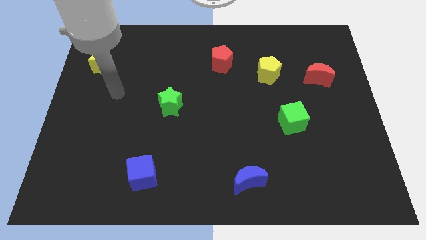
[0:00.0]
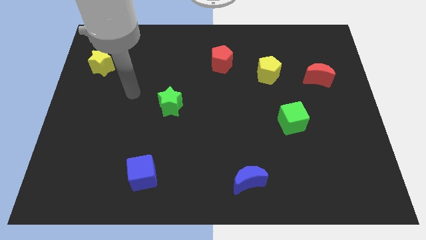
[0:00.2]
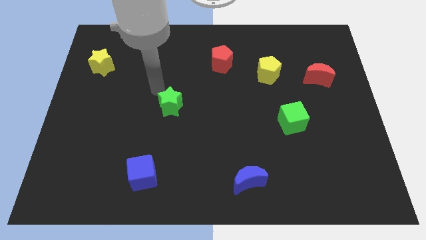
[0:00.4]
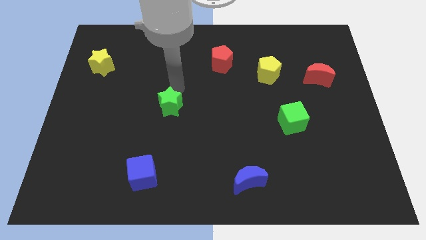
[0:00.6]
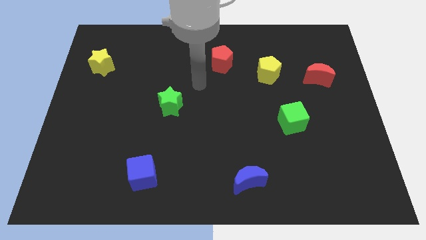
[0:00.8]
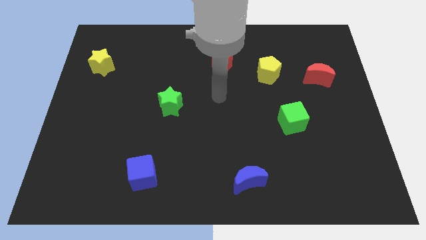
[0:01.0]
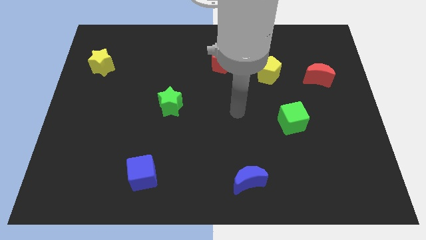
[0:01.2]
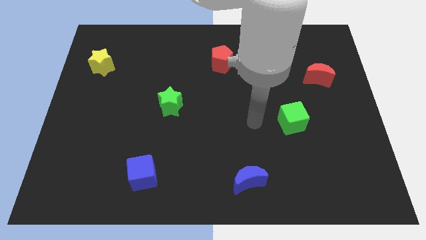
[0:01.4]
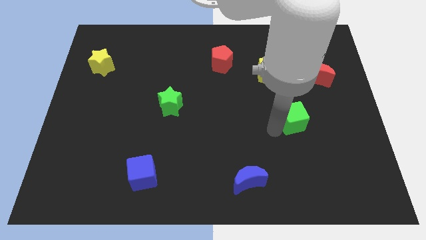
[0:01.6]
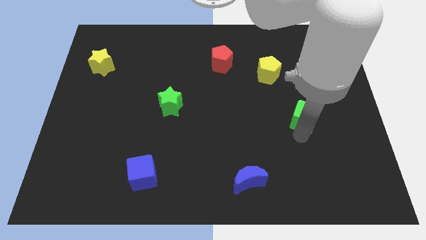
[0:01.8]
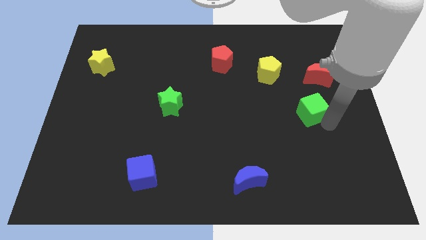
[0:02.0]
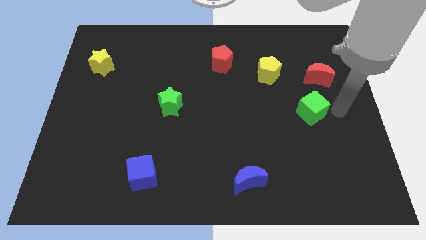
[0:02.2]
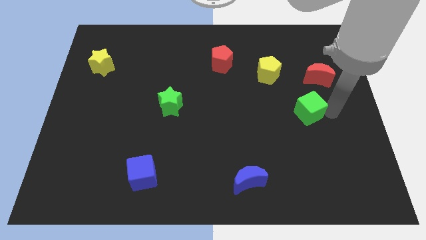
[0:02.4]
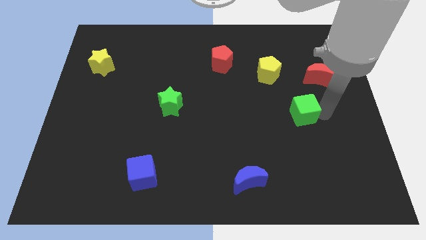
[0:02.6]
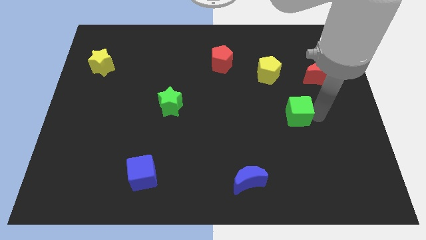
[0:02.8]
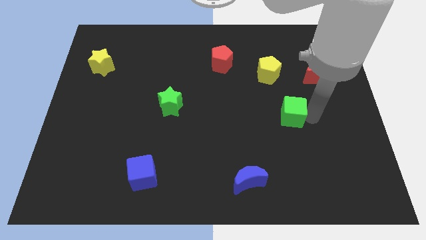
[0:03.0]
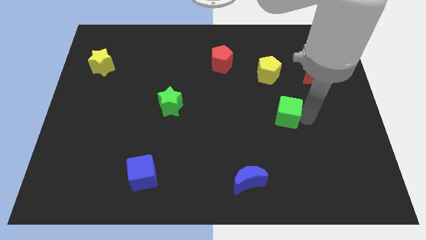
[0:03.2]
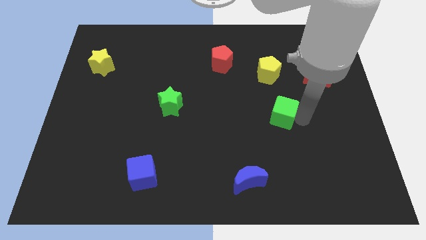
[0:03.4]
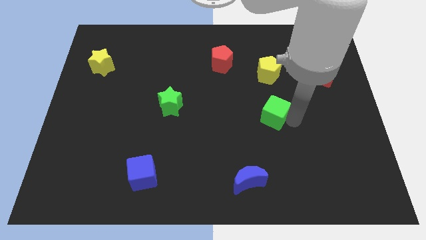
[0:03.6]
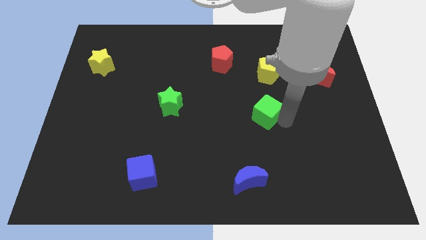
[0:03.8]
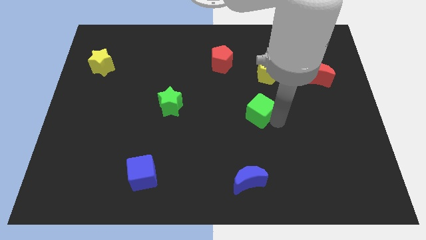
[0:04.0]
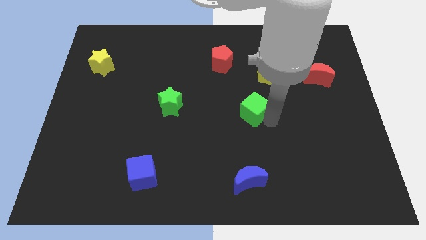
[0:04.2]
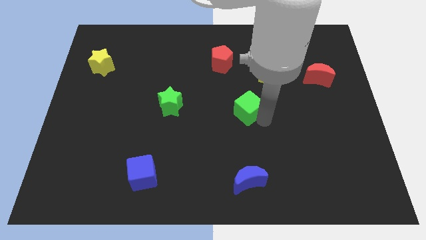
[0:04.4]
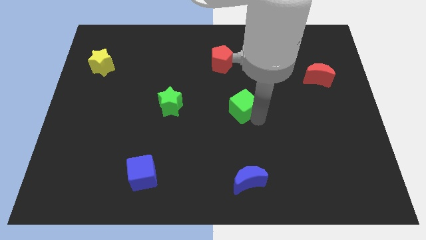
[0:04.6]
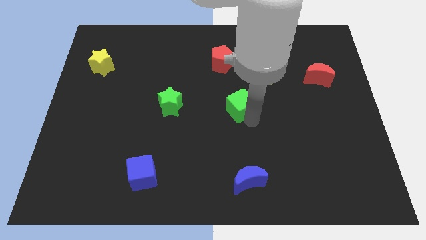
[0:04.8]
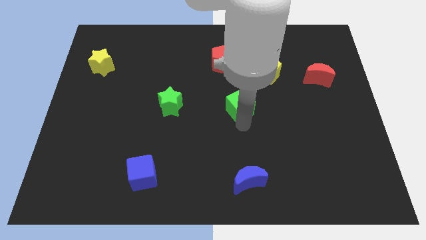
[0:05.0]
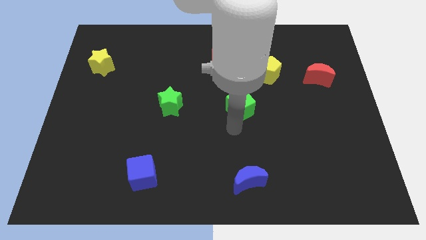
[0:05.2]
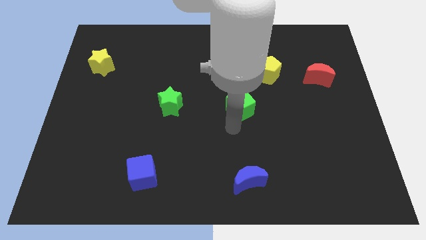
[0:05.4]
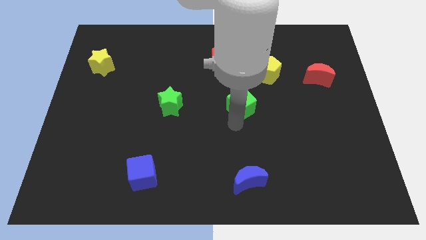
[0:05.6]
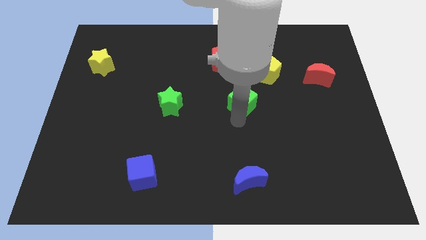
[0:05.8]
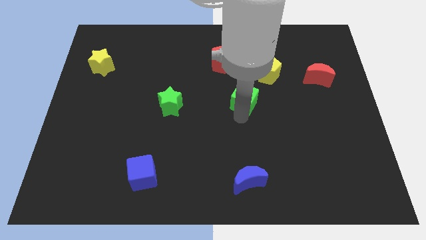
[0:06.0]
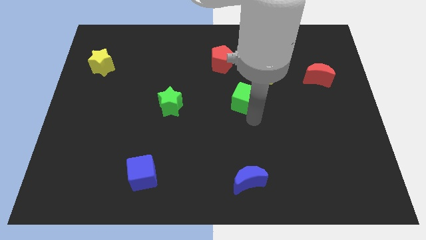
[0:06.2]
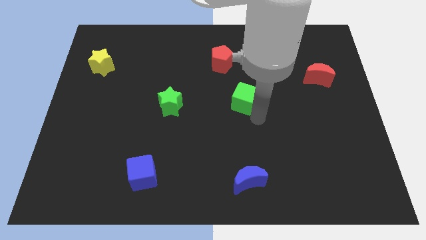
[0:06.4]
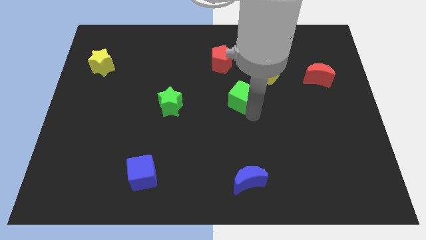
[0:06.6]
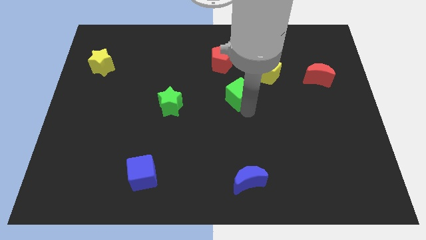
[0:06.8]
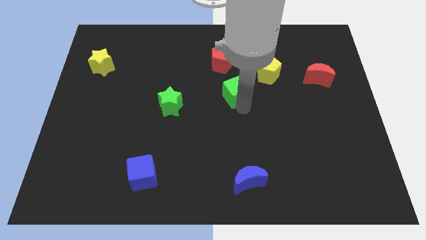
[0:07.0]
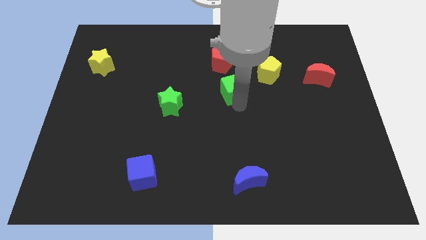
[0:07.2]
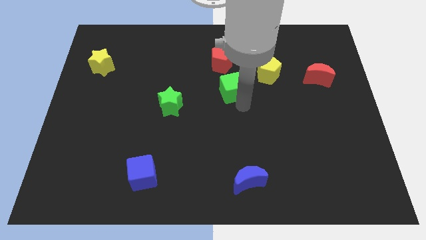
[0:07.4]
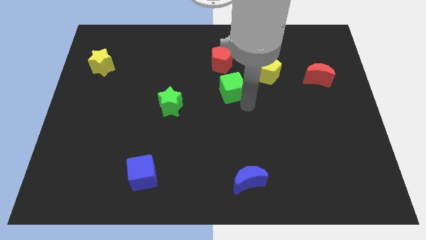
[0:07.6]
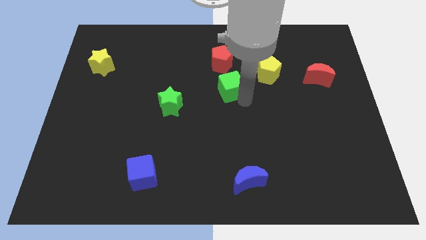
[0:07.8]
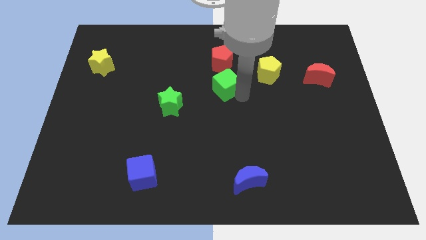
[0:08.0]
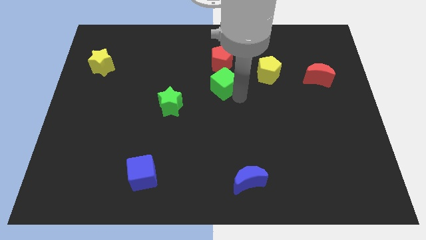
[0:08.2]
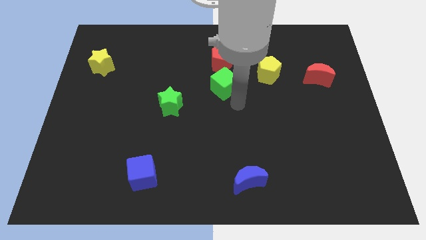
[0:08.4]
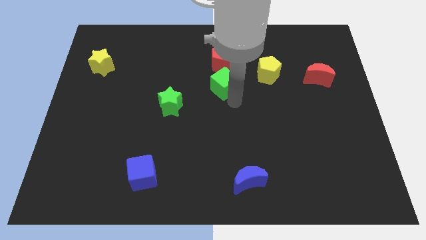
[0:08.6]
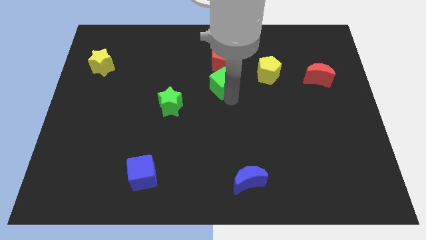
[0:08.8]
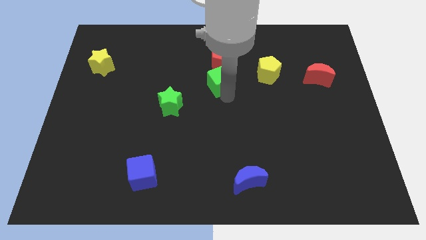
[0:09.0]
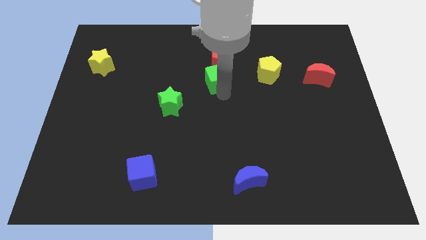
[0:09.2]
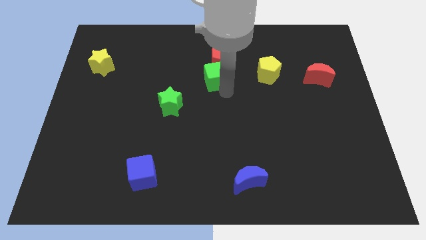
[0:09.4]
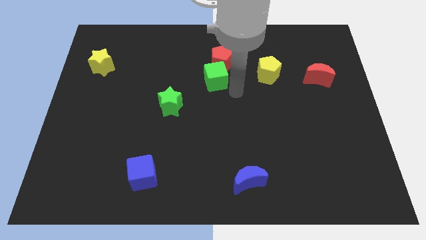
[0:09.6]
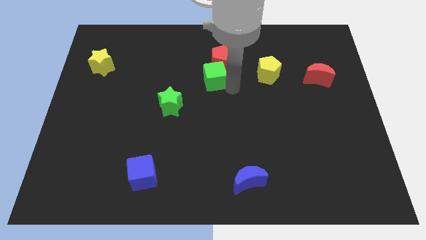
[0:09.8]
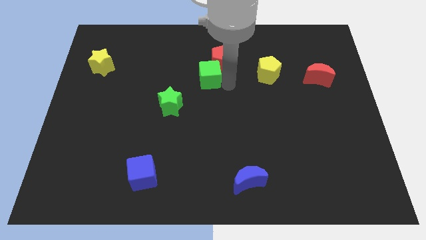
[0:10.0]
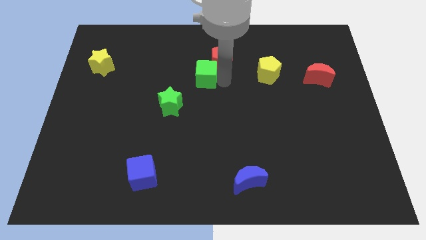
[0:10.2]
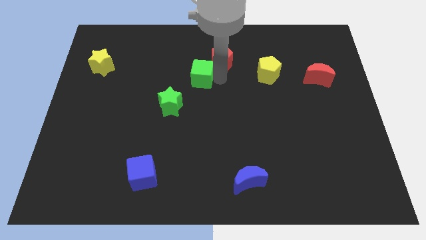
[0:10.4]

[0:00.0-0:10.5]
push the green cube to the left side of the red pentagon

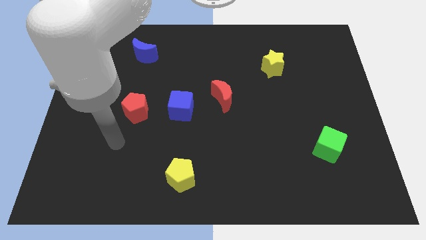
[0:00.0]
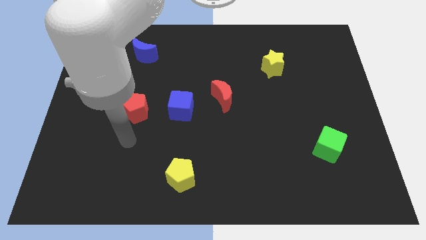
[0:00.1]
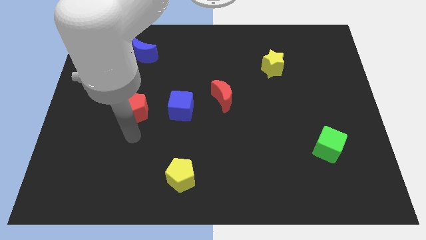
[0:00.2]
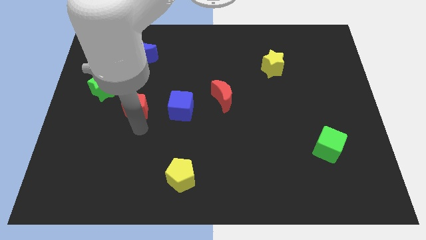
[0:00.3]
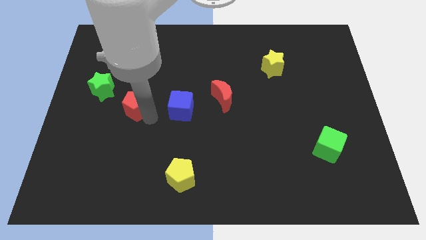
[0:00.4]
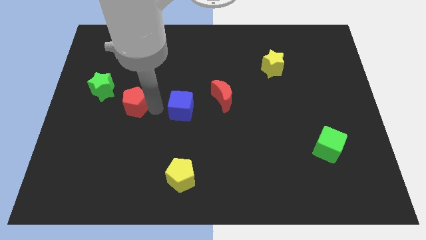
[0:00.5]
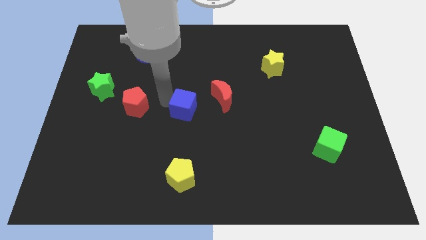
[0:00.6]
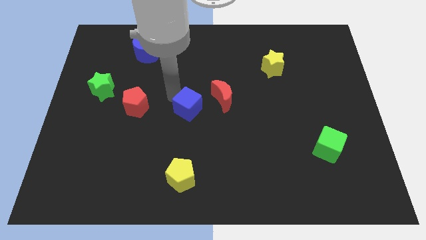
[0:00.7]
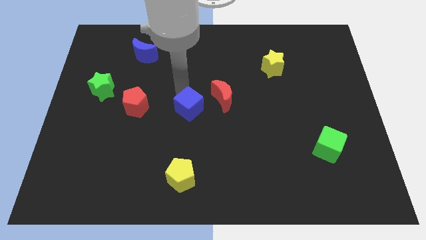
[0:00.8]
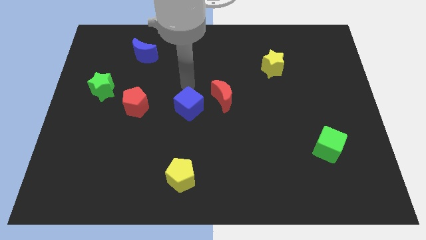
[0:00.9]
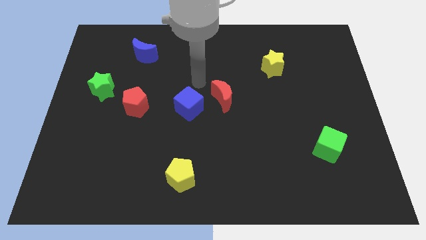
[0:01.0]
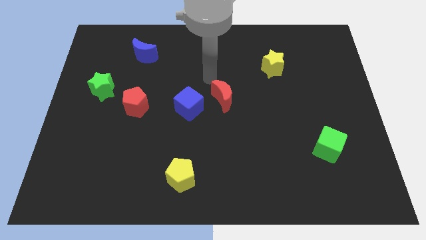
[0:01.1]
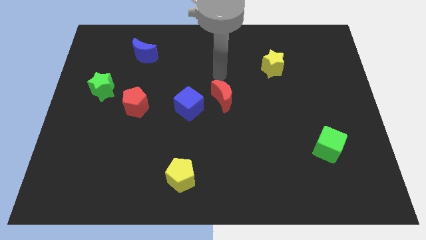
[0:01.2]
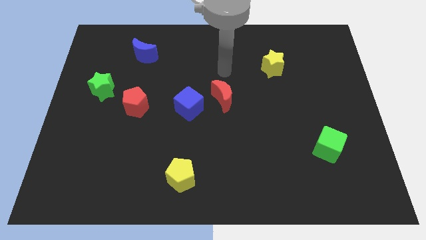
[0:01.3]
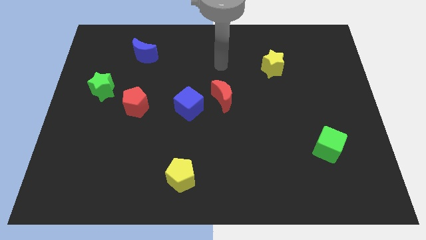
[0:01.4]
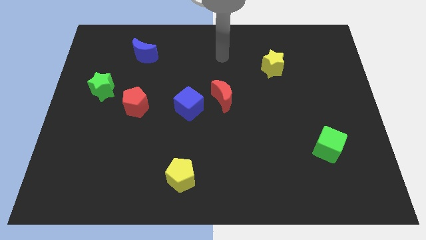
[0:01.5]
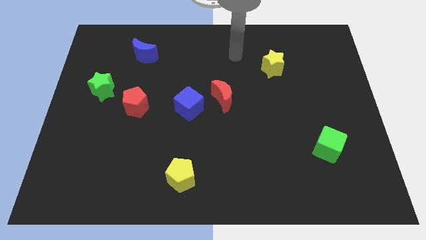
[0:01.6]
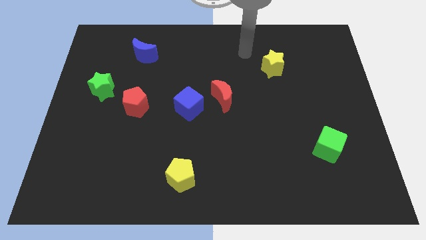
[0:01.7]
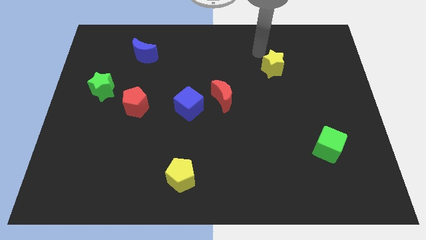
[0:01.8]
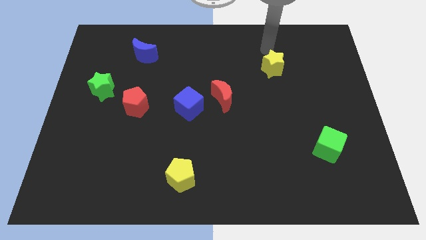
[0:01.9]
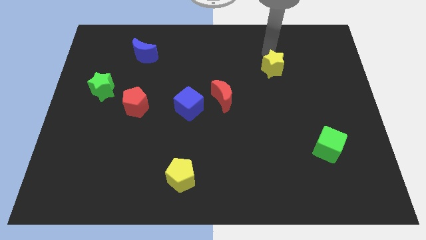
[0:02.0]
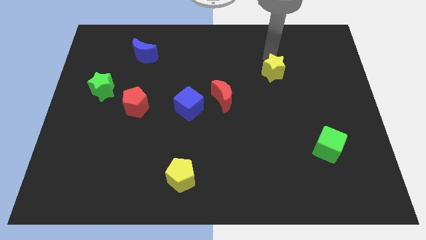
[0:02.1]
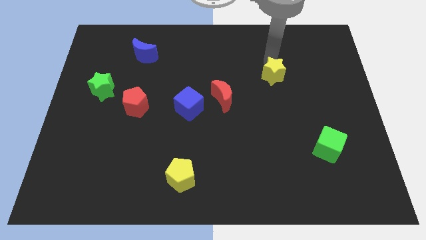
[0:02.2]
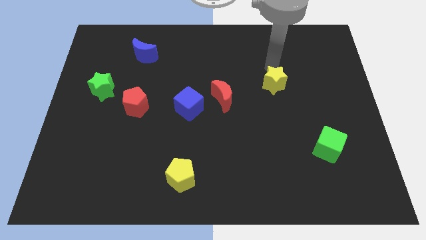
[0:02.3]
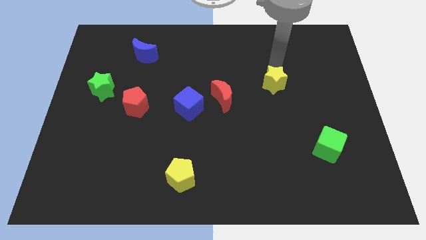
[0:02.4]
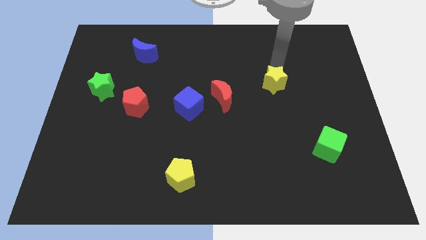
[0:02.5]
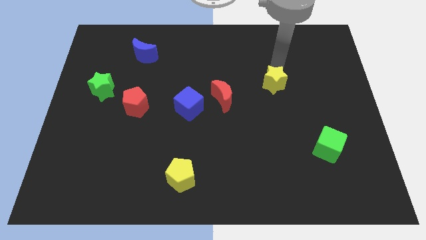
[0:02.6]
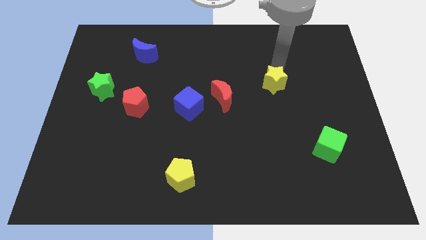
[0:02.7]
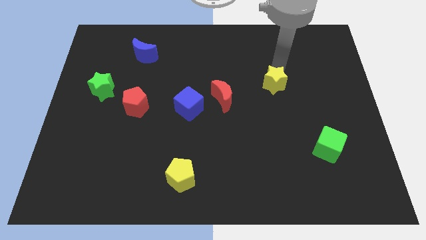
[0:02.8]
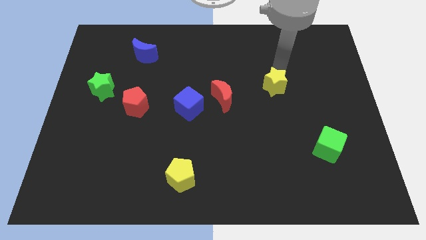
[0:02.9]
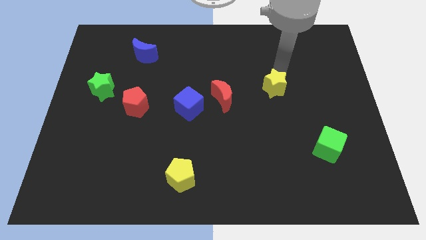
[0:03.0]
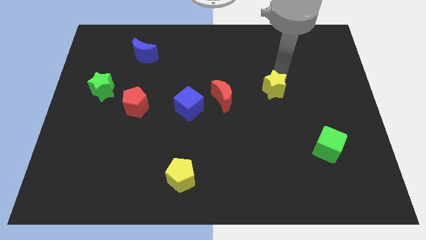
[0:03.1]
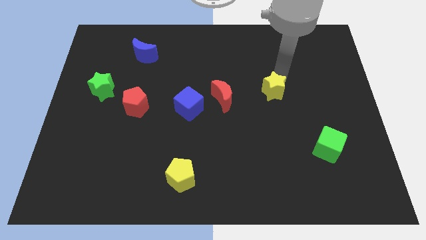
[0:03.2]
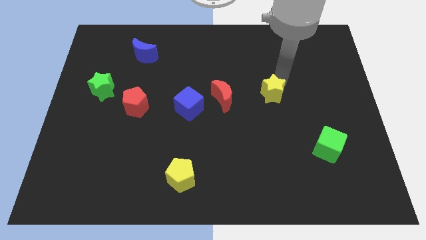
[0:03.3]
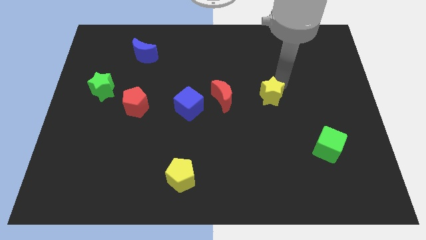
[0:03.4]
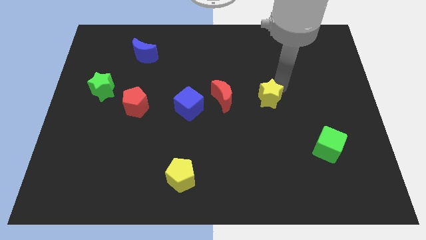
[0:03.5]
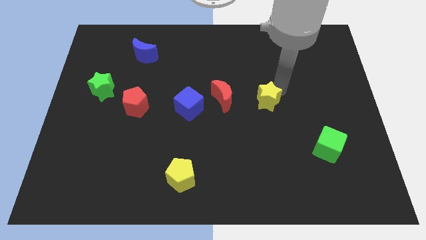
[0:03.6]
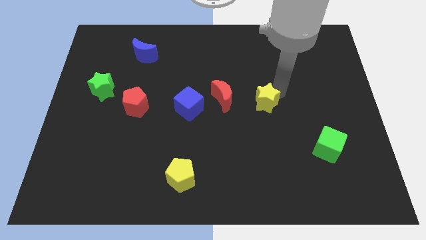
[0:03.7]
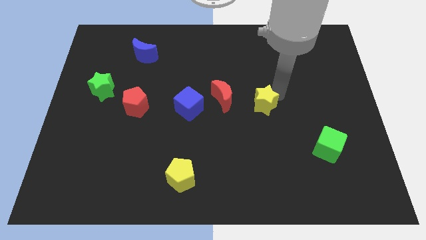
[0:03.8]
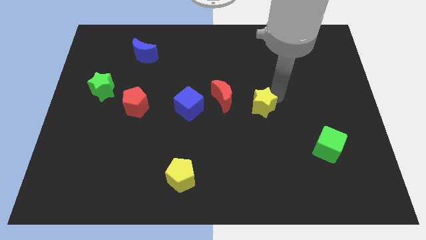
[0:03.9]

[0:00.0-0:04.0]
move the yellow star to the bottom right of the red moon
